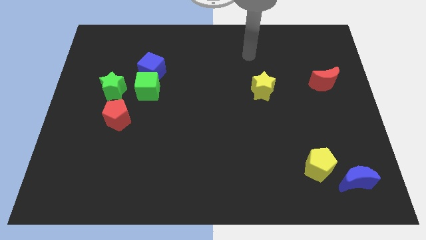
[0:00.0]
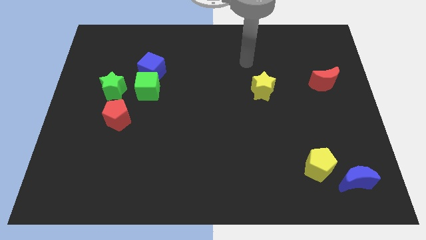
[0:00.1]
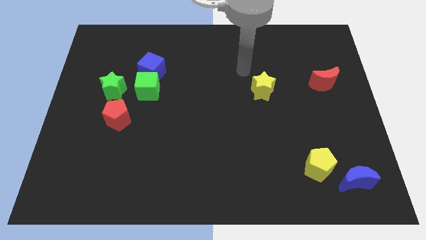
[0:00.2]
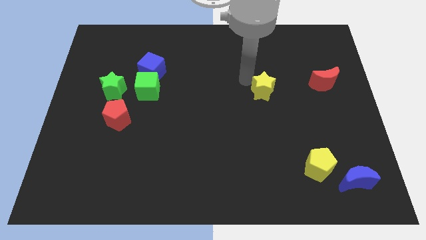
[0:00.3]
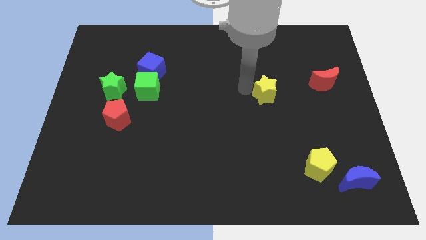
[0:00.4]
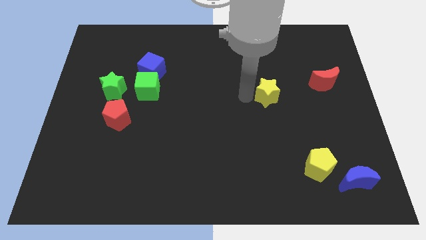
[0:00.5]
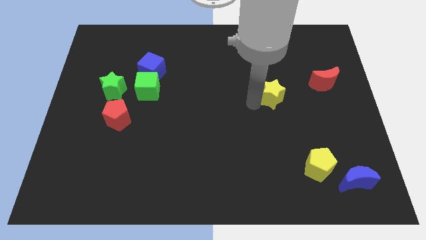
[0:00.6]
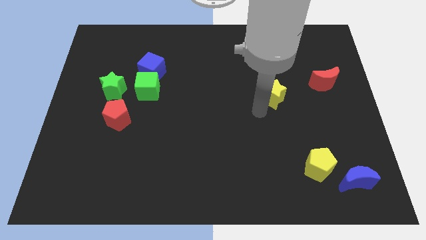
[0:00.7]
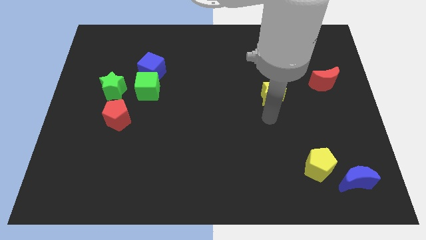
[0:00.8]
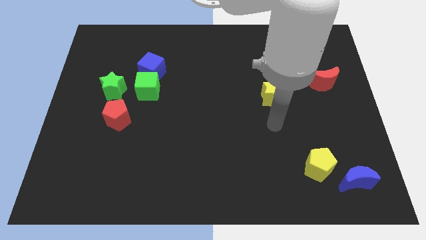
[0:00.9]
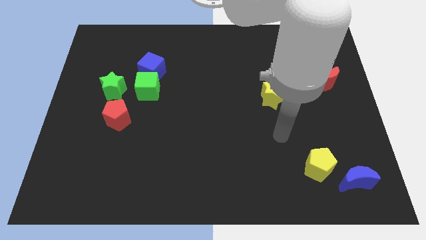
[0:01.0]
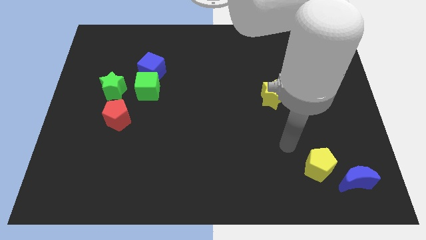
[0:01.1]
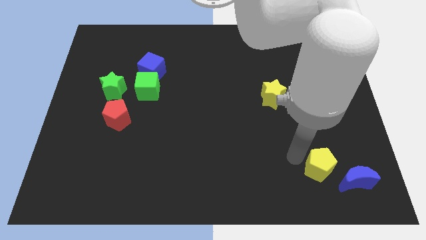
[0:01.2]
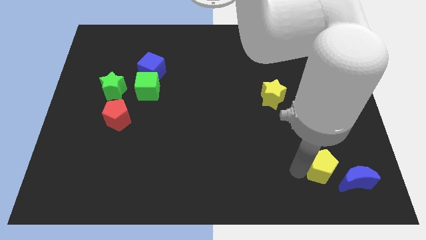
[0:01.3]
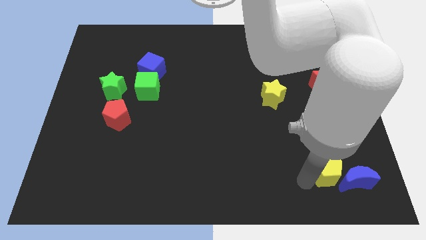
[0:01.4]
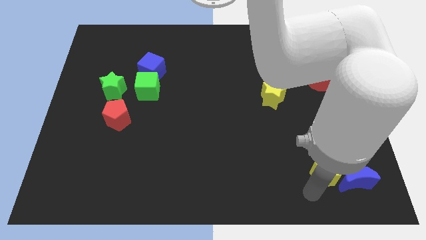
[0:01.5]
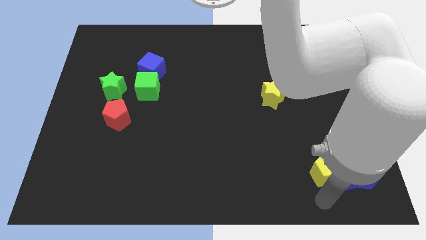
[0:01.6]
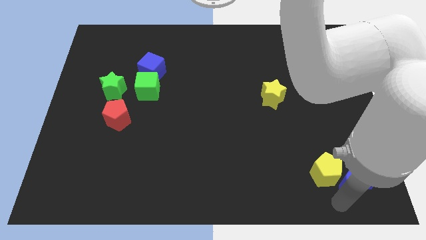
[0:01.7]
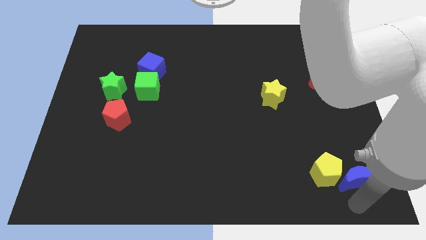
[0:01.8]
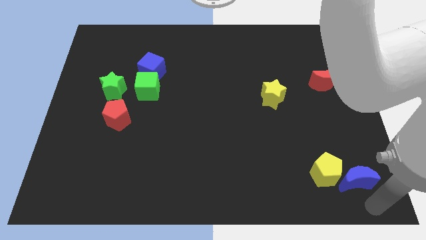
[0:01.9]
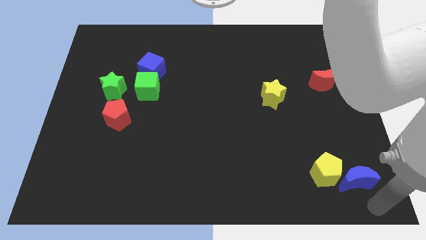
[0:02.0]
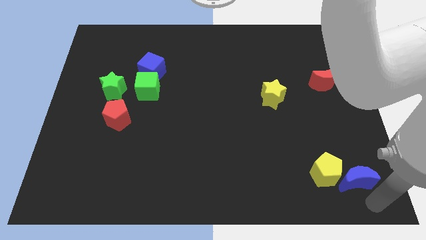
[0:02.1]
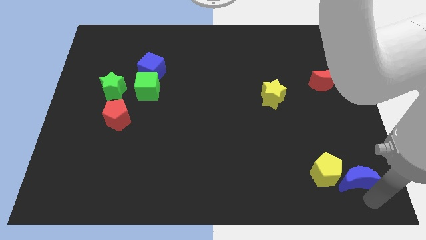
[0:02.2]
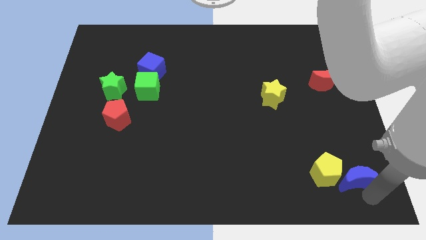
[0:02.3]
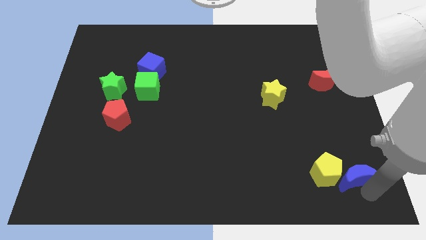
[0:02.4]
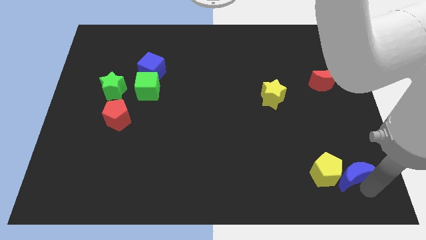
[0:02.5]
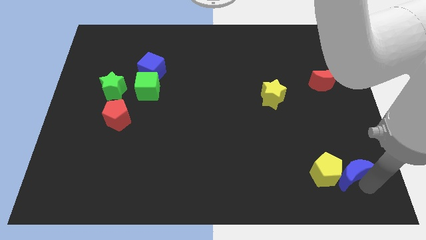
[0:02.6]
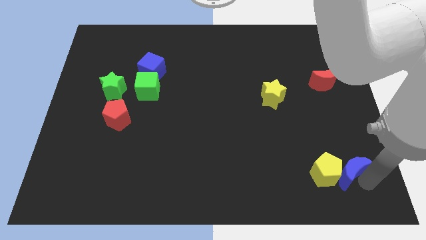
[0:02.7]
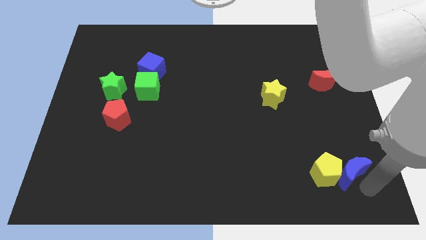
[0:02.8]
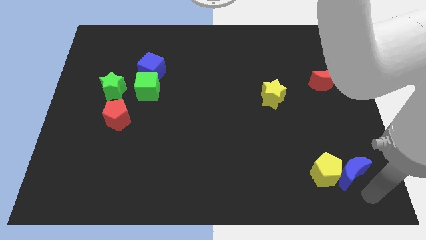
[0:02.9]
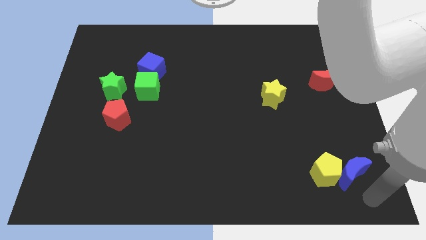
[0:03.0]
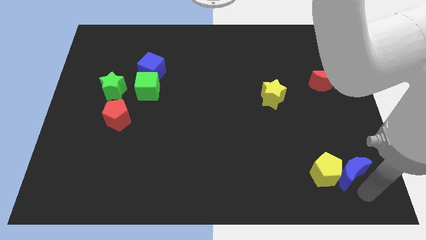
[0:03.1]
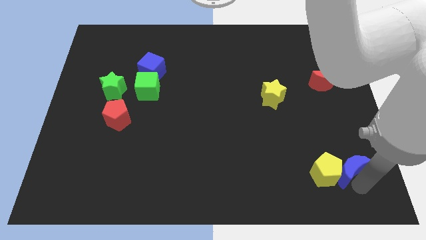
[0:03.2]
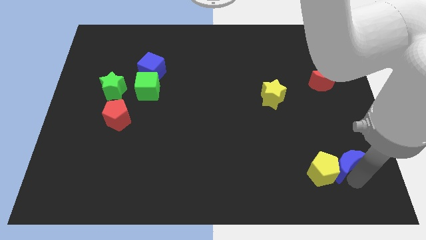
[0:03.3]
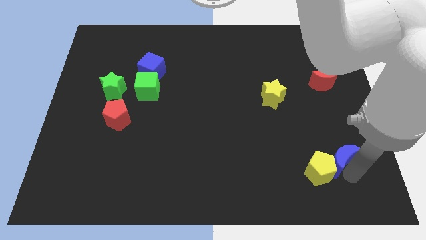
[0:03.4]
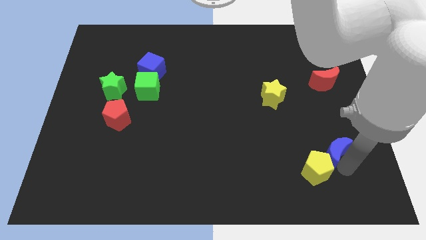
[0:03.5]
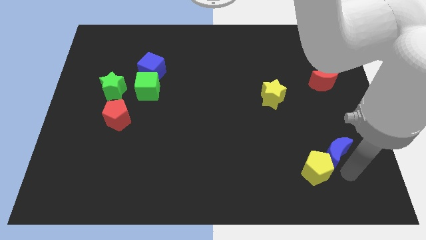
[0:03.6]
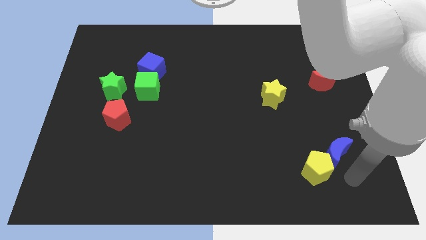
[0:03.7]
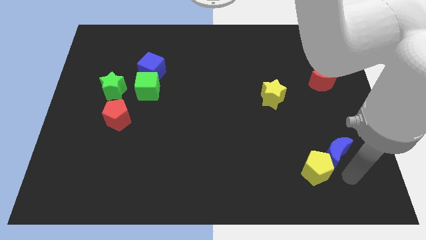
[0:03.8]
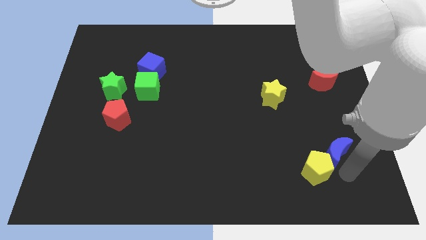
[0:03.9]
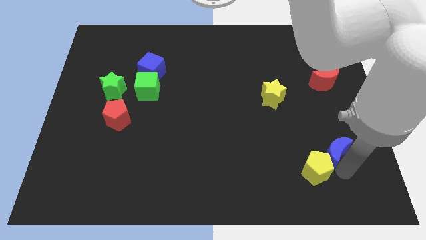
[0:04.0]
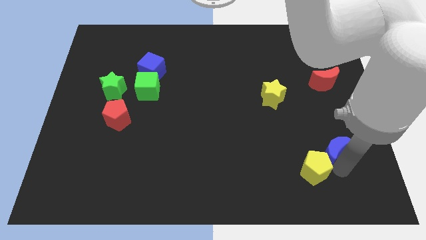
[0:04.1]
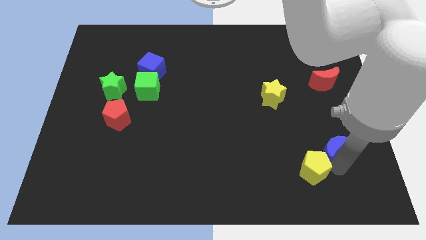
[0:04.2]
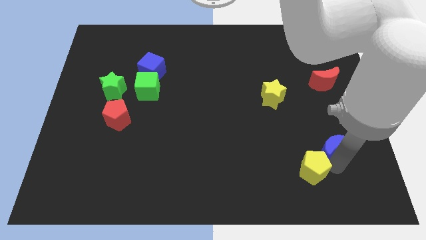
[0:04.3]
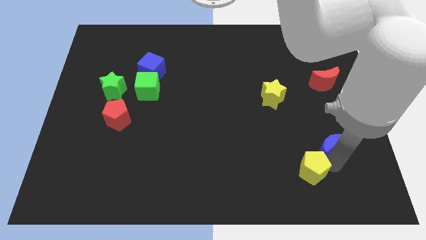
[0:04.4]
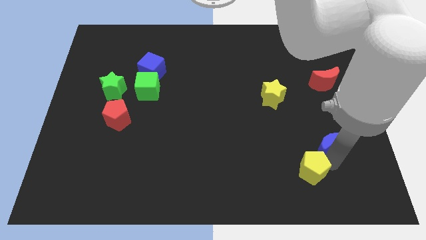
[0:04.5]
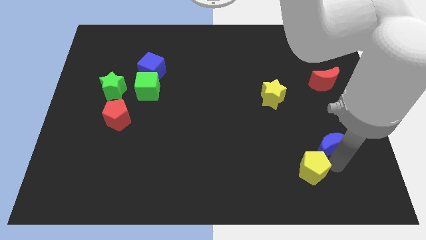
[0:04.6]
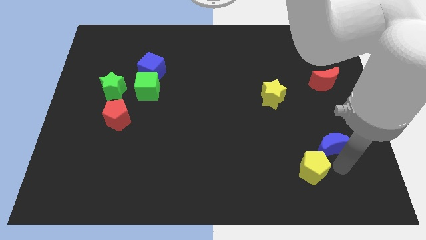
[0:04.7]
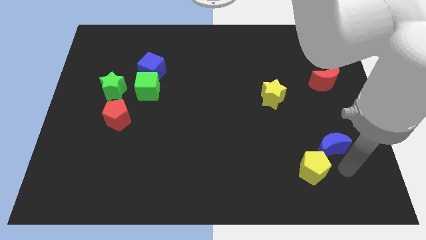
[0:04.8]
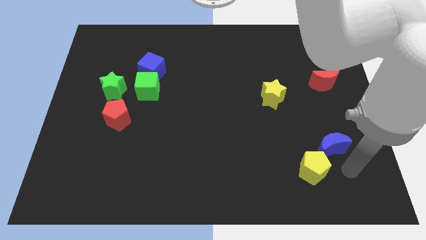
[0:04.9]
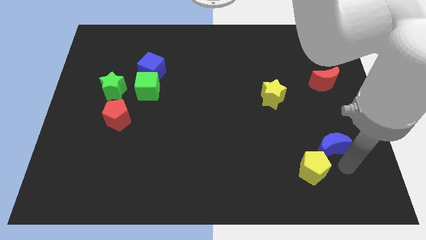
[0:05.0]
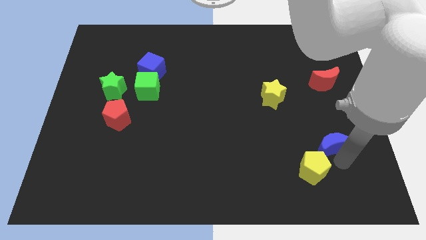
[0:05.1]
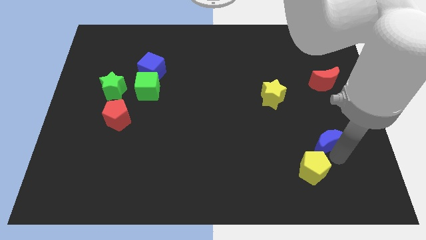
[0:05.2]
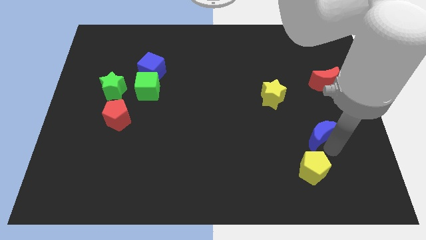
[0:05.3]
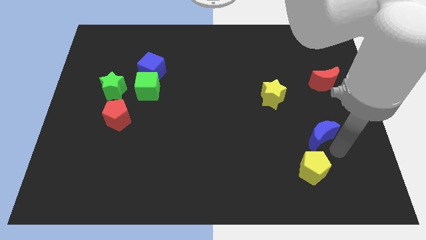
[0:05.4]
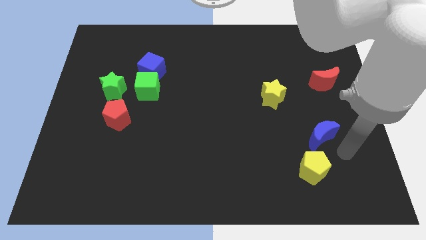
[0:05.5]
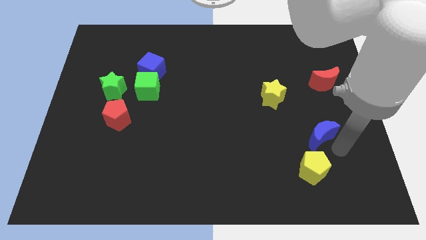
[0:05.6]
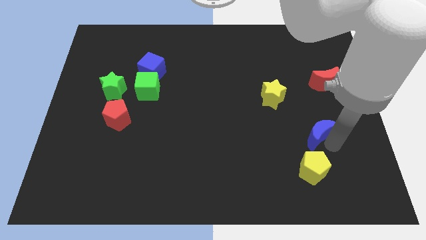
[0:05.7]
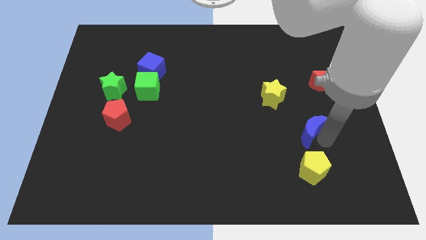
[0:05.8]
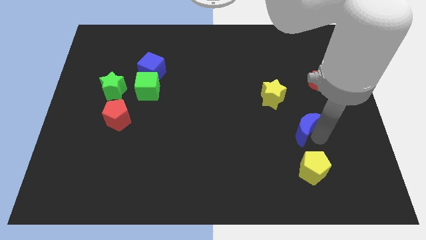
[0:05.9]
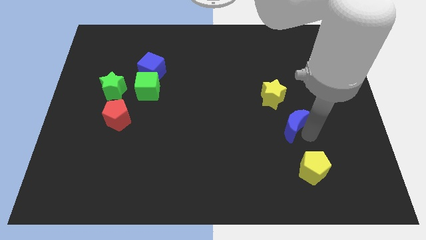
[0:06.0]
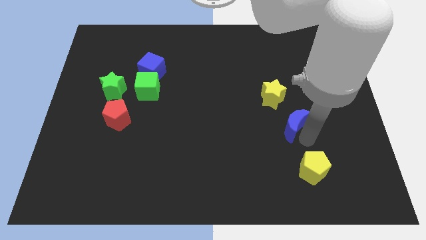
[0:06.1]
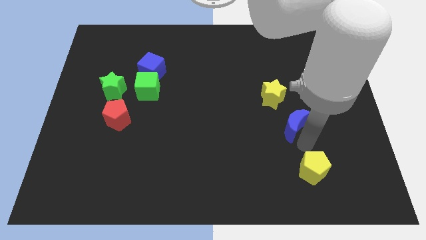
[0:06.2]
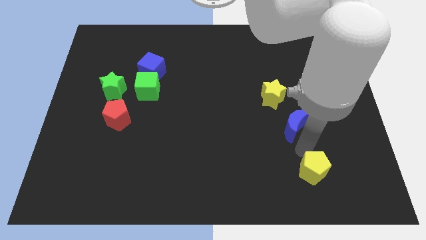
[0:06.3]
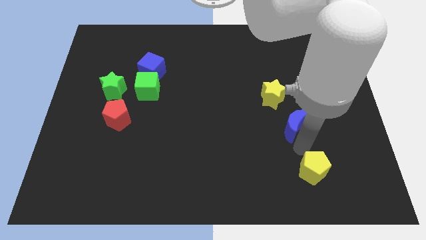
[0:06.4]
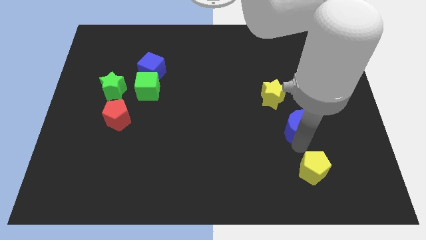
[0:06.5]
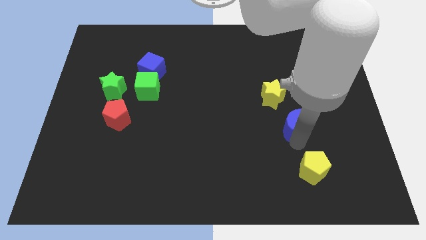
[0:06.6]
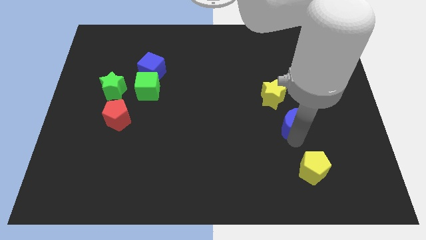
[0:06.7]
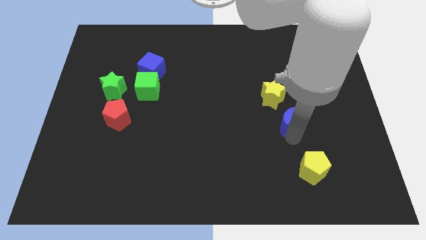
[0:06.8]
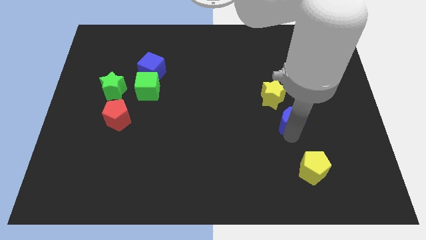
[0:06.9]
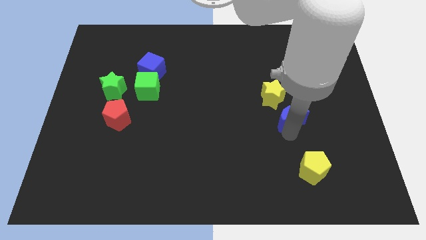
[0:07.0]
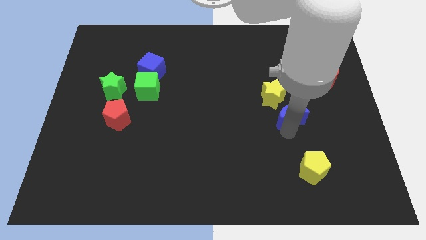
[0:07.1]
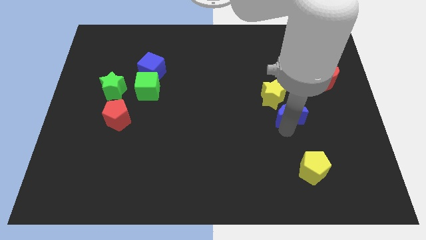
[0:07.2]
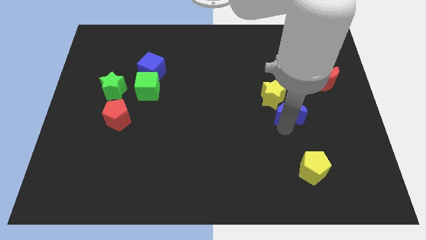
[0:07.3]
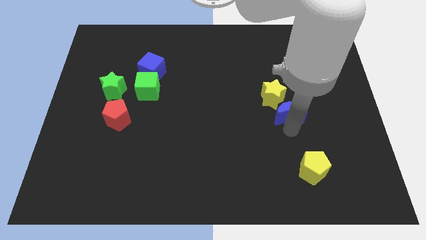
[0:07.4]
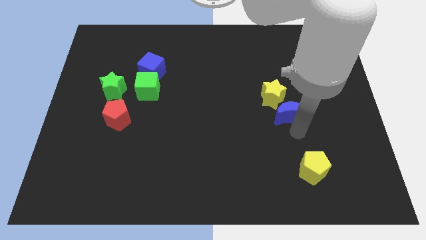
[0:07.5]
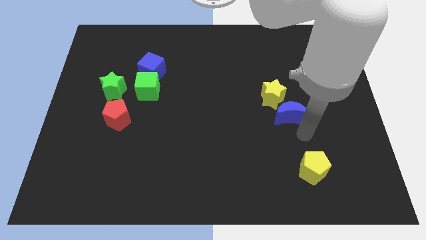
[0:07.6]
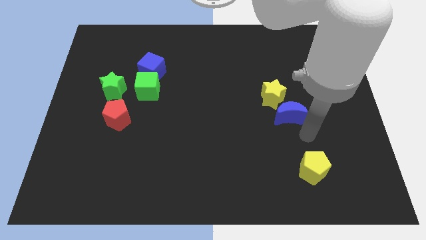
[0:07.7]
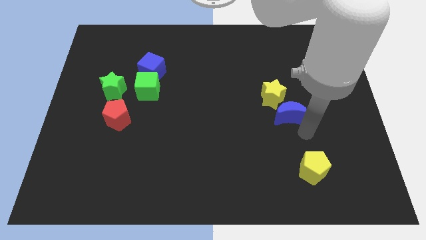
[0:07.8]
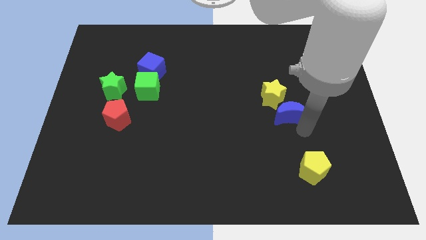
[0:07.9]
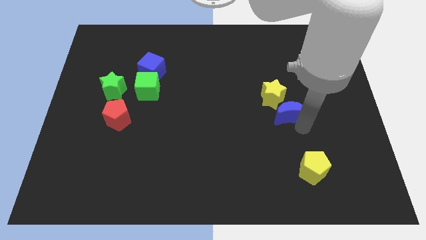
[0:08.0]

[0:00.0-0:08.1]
push the blue moon to the yellow star
